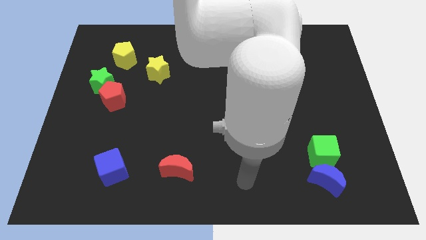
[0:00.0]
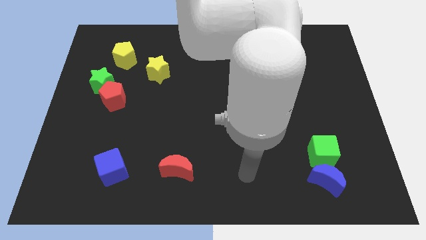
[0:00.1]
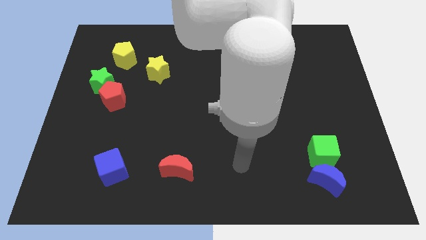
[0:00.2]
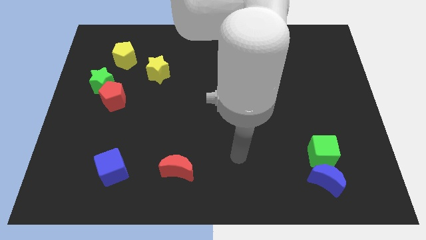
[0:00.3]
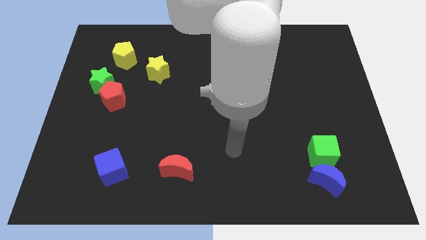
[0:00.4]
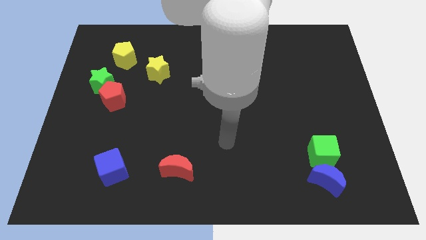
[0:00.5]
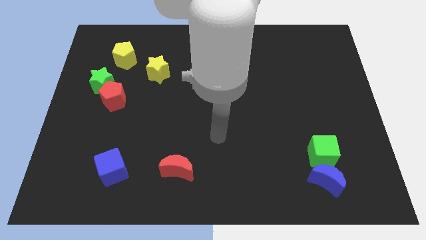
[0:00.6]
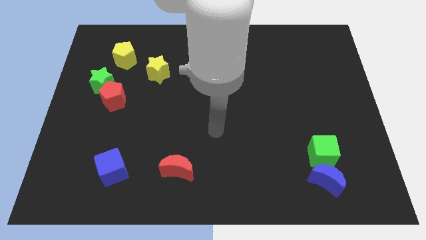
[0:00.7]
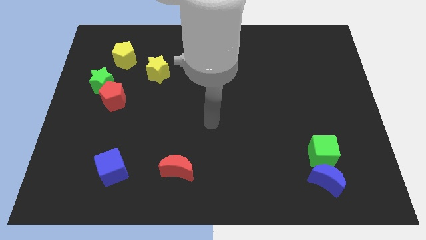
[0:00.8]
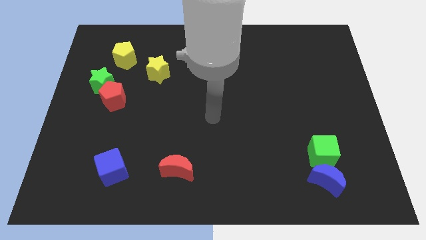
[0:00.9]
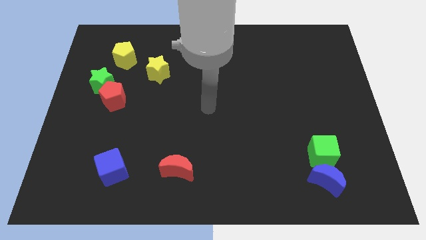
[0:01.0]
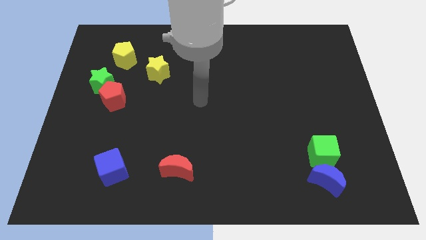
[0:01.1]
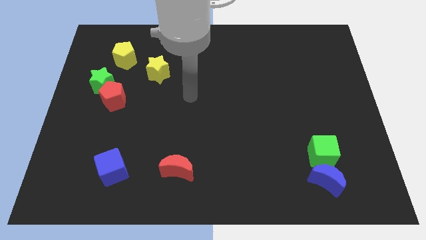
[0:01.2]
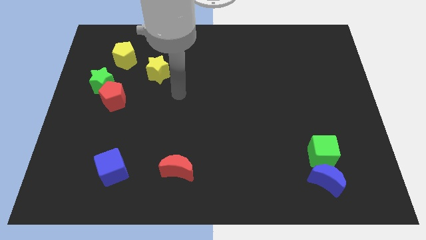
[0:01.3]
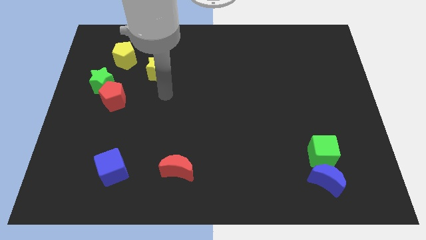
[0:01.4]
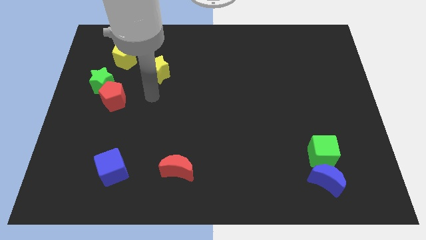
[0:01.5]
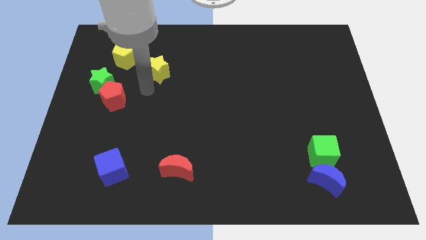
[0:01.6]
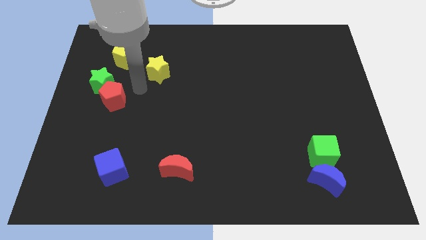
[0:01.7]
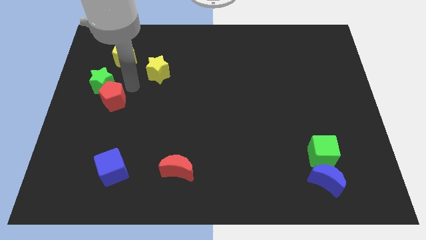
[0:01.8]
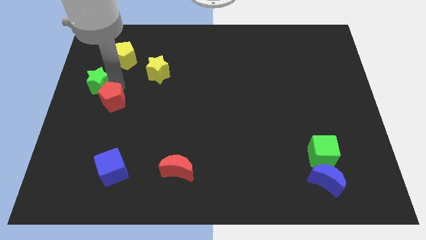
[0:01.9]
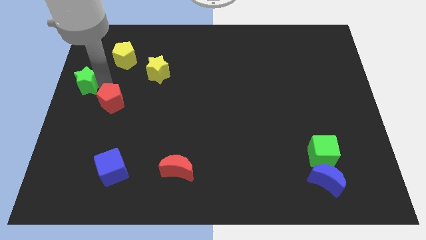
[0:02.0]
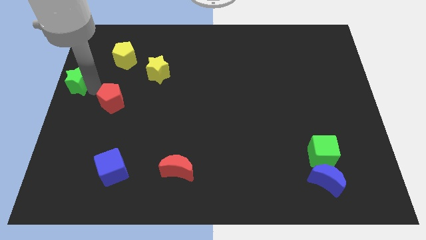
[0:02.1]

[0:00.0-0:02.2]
move the red pentagon away from the green star

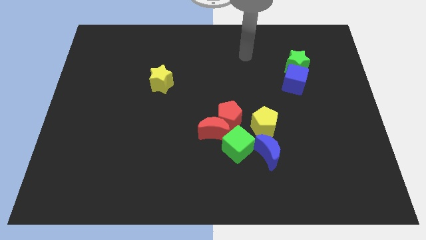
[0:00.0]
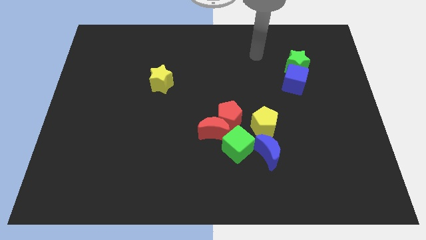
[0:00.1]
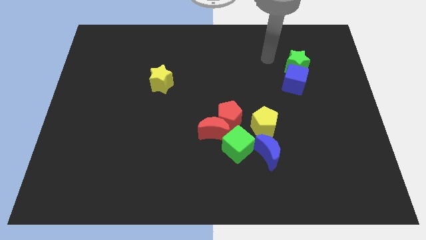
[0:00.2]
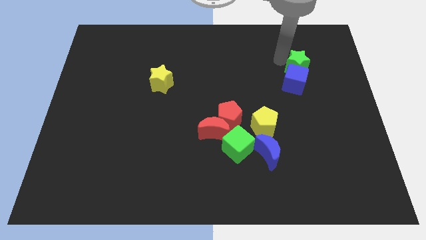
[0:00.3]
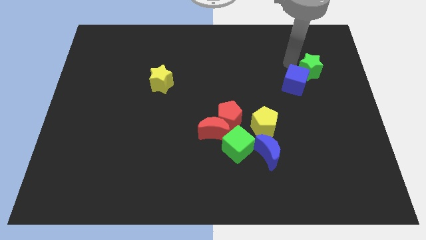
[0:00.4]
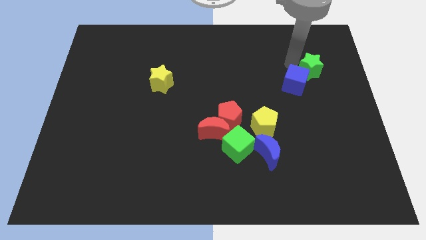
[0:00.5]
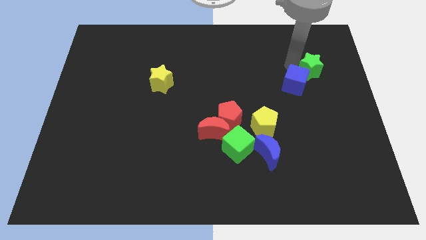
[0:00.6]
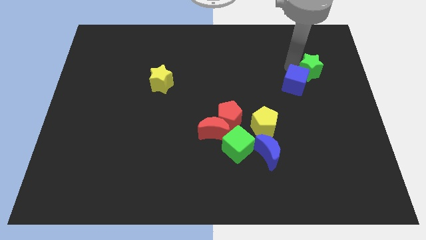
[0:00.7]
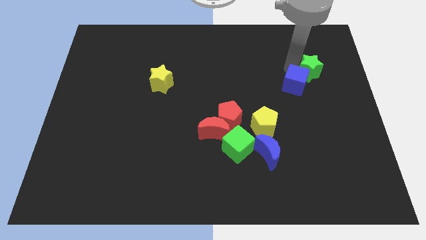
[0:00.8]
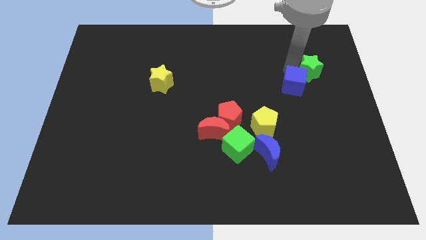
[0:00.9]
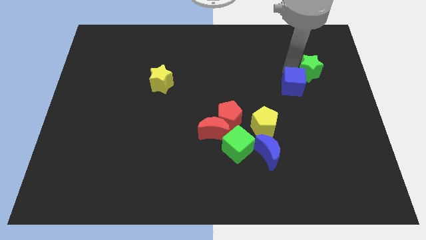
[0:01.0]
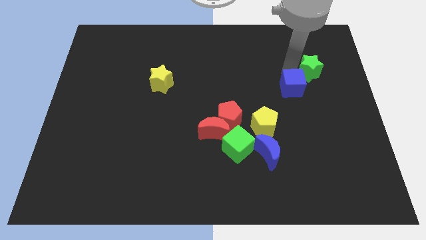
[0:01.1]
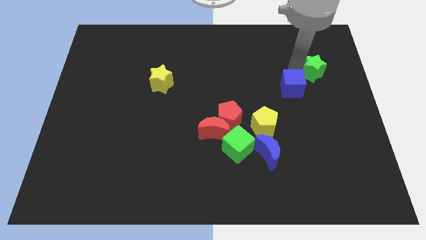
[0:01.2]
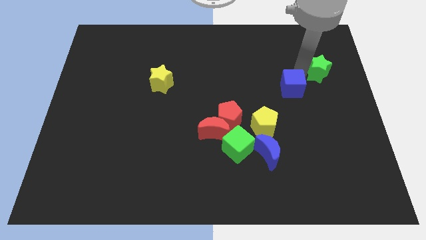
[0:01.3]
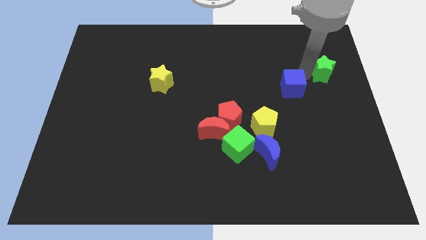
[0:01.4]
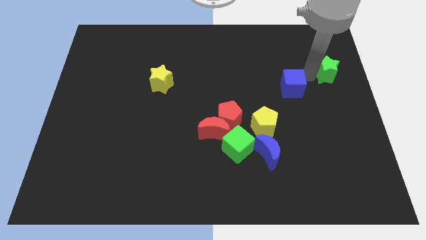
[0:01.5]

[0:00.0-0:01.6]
move the blue cube away from the green star

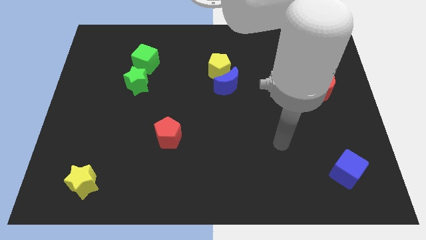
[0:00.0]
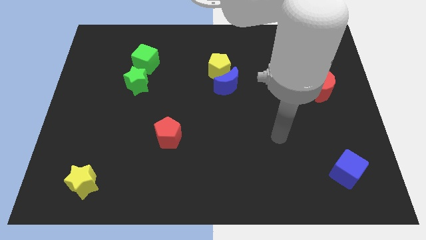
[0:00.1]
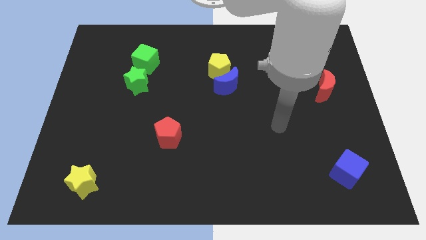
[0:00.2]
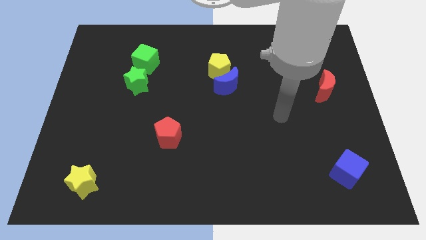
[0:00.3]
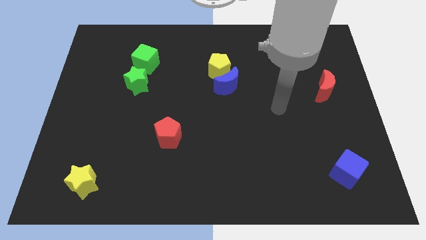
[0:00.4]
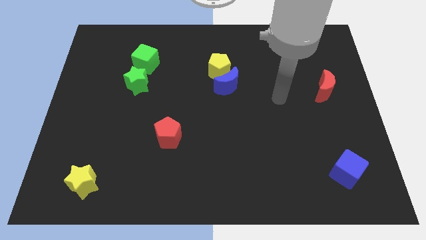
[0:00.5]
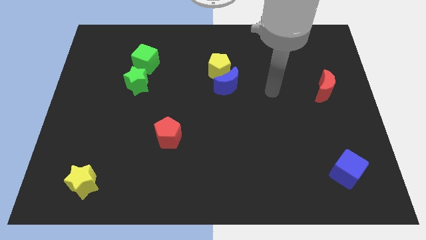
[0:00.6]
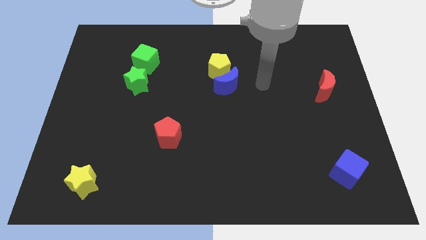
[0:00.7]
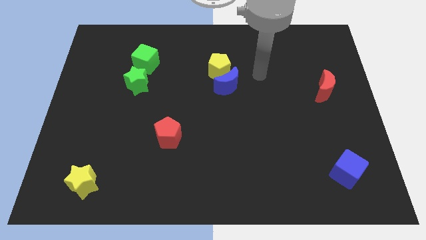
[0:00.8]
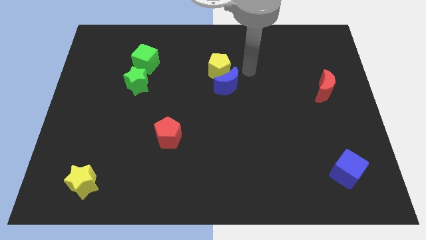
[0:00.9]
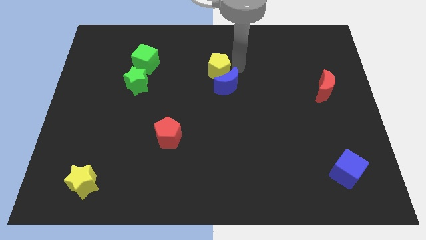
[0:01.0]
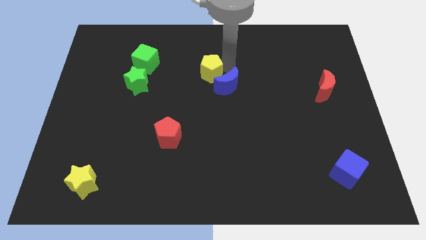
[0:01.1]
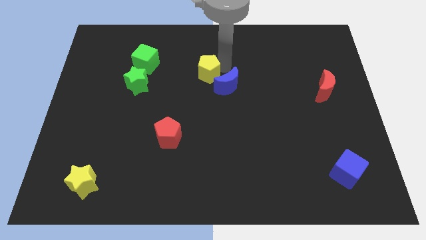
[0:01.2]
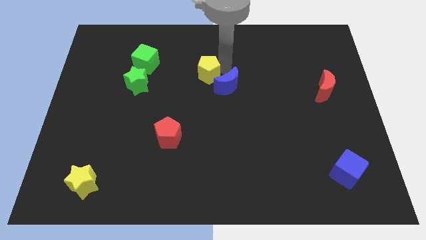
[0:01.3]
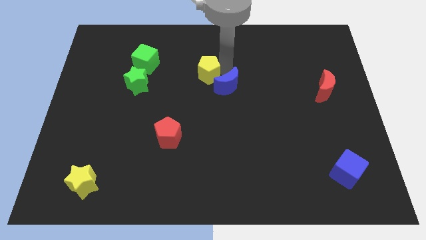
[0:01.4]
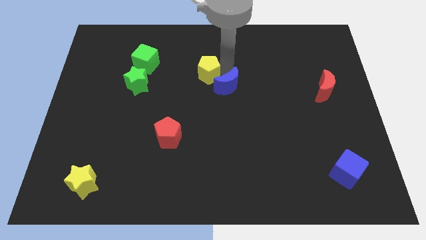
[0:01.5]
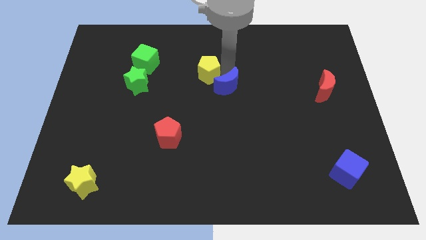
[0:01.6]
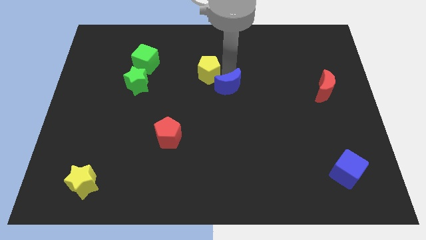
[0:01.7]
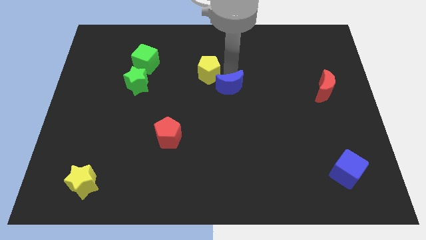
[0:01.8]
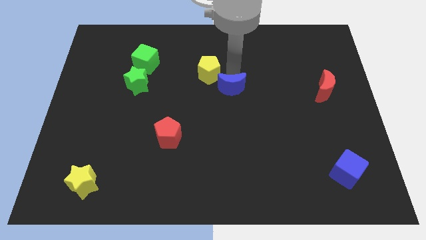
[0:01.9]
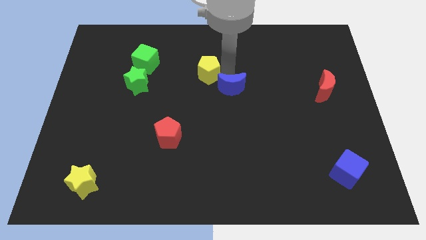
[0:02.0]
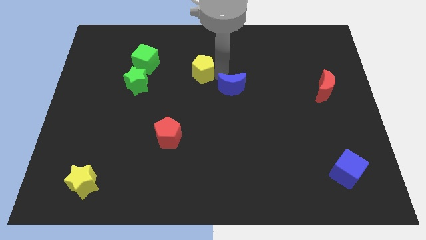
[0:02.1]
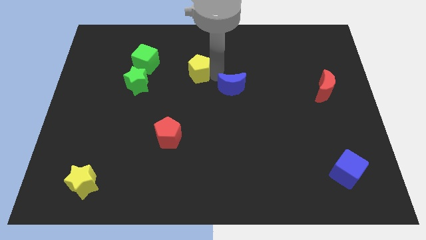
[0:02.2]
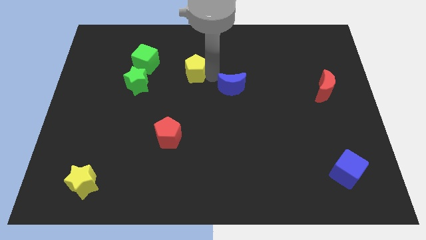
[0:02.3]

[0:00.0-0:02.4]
separate the blue moon from the yellow pentagon

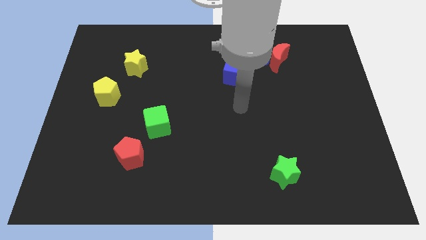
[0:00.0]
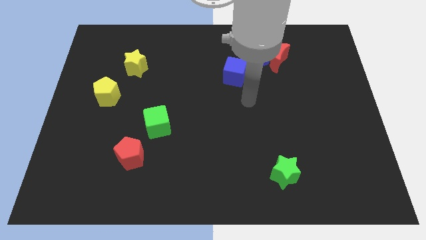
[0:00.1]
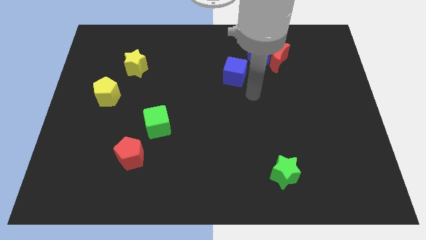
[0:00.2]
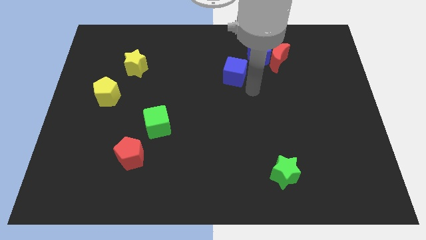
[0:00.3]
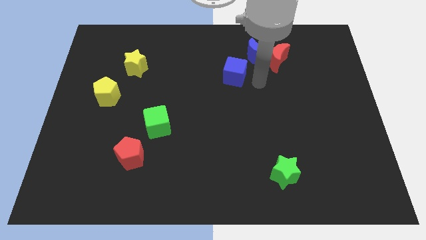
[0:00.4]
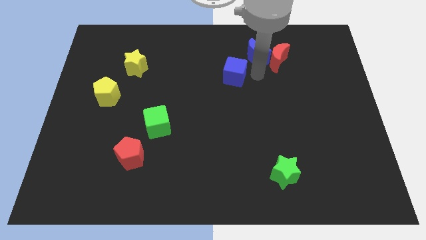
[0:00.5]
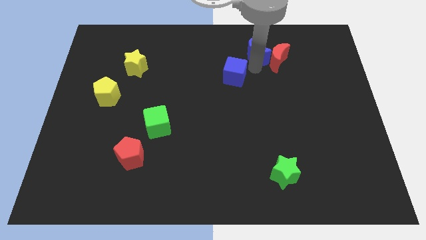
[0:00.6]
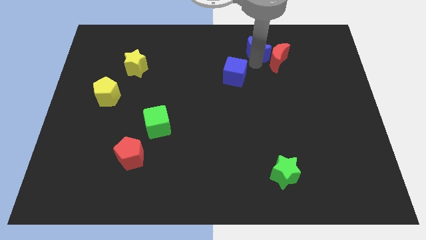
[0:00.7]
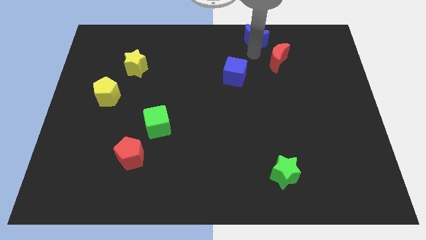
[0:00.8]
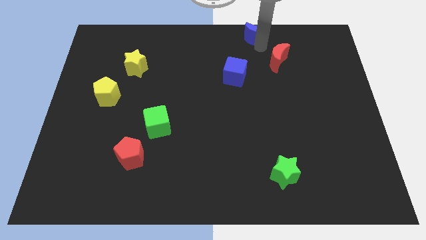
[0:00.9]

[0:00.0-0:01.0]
pull the red moon apart from the blue moon

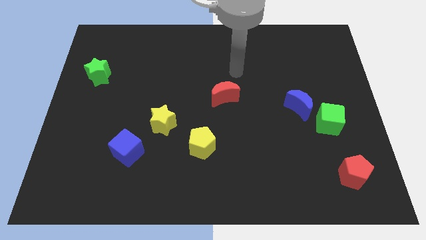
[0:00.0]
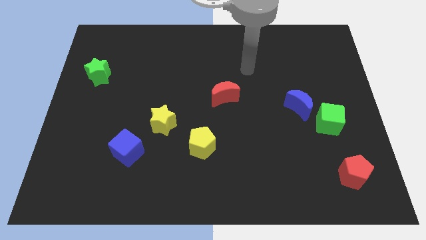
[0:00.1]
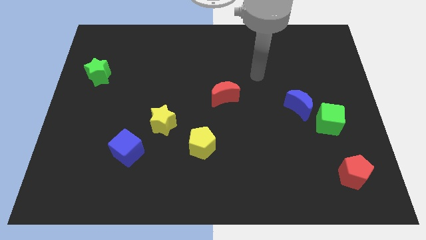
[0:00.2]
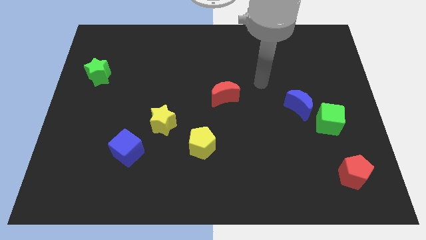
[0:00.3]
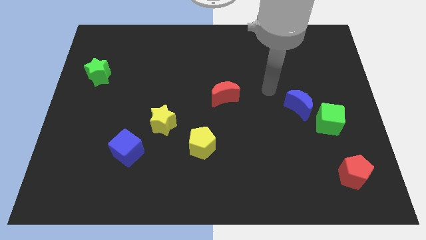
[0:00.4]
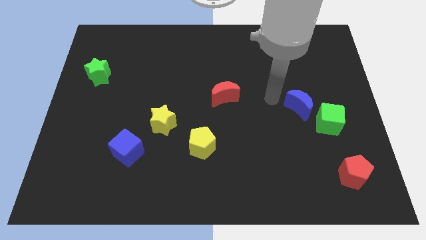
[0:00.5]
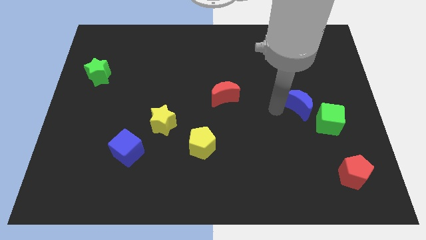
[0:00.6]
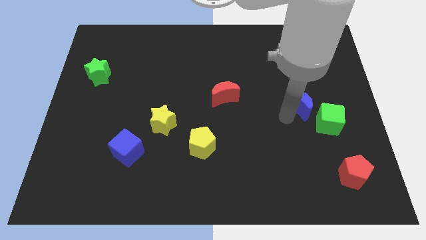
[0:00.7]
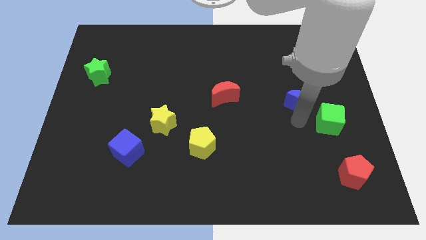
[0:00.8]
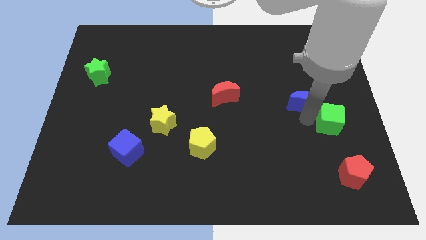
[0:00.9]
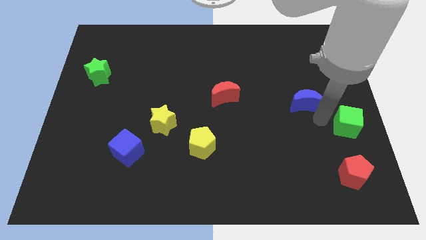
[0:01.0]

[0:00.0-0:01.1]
pull the blue moon apart from the green cube

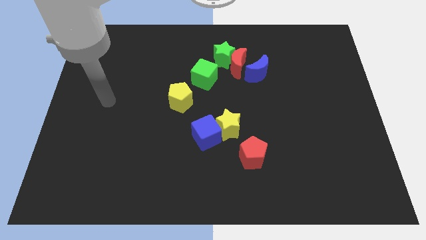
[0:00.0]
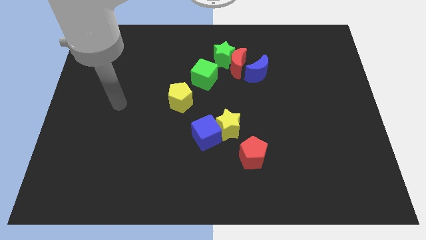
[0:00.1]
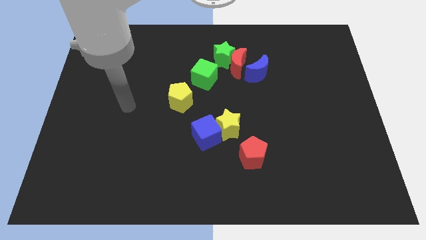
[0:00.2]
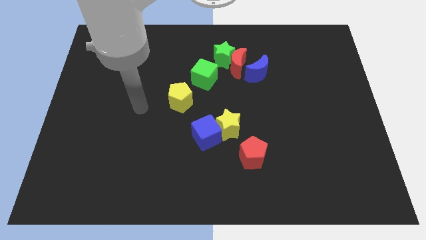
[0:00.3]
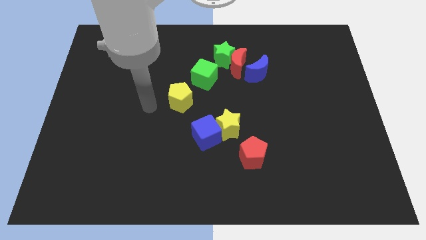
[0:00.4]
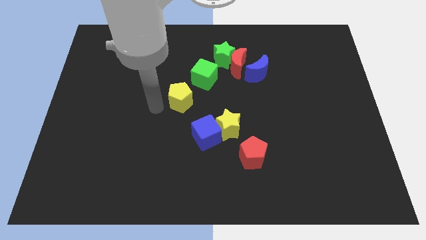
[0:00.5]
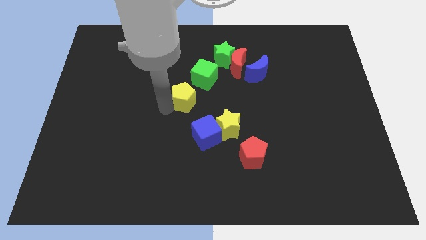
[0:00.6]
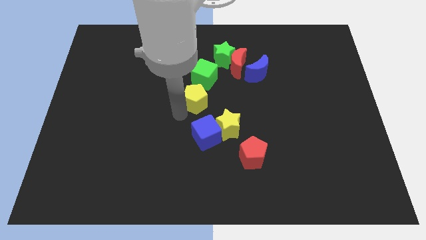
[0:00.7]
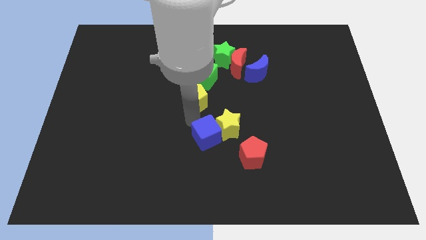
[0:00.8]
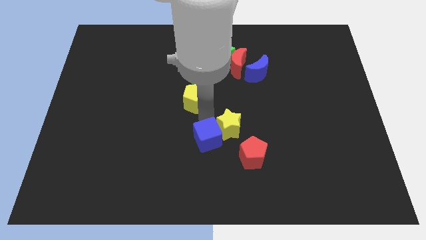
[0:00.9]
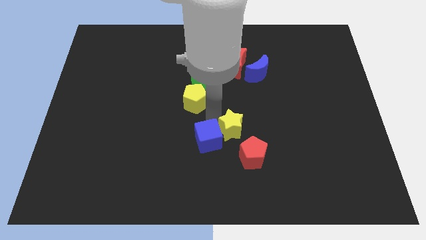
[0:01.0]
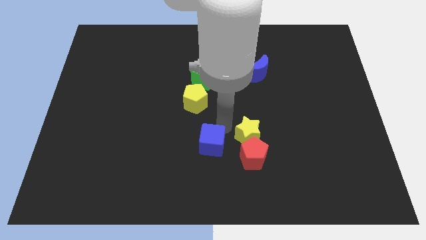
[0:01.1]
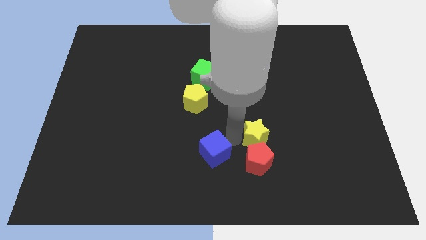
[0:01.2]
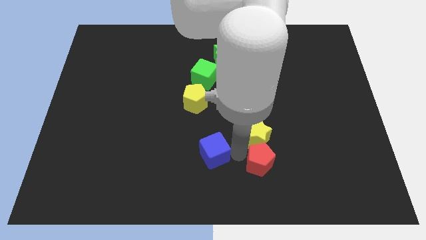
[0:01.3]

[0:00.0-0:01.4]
pull the blue cube apart from the yellow star
